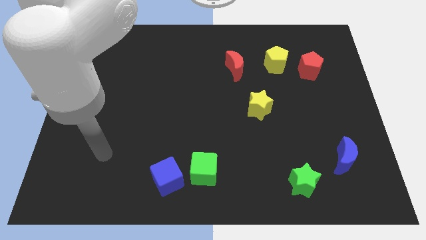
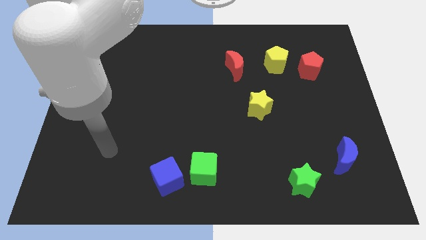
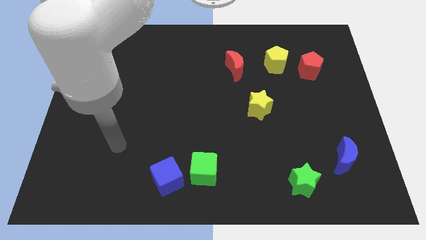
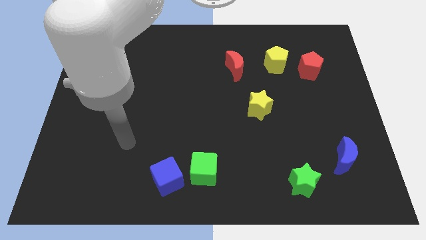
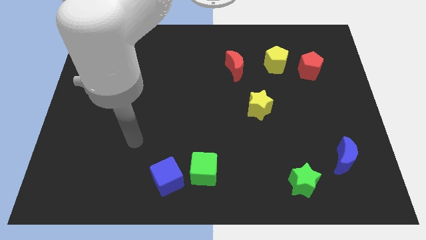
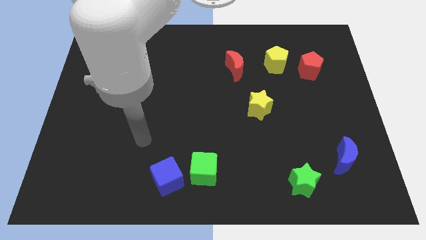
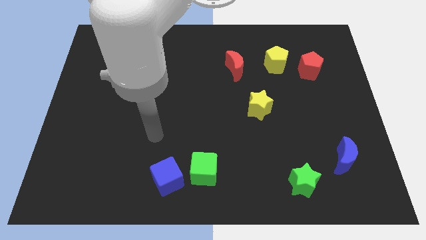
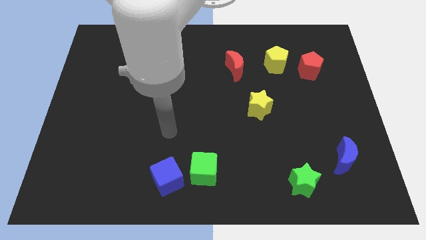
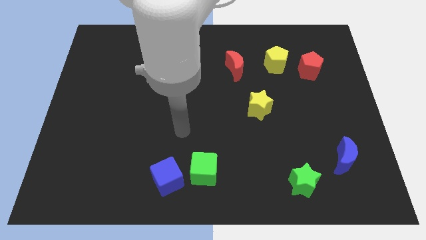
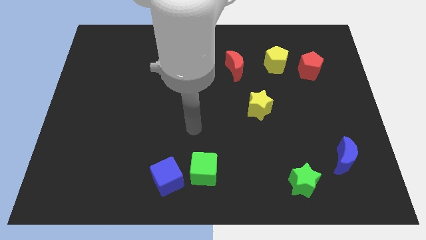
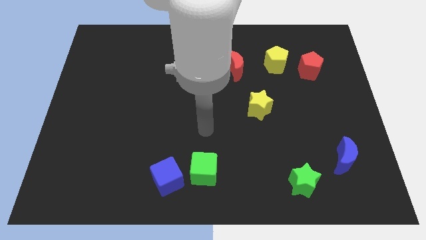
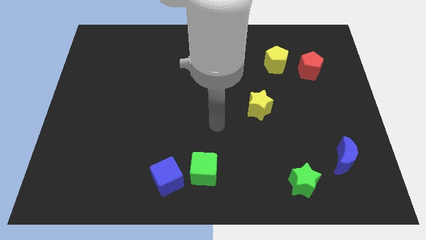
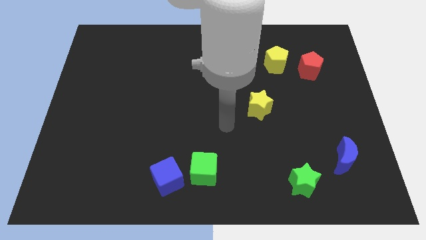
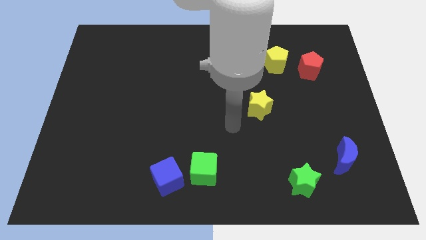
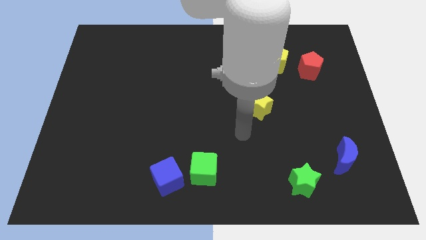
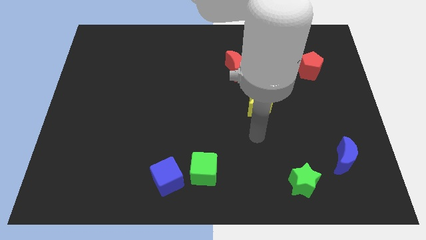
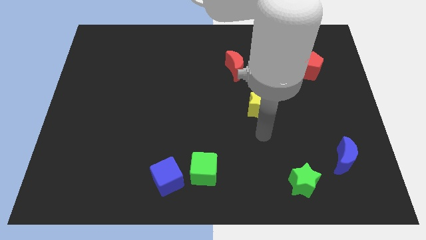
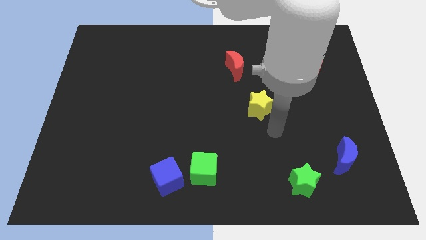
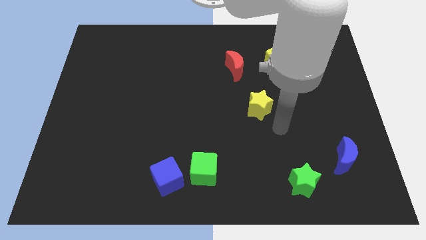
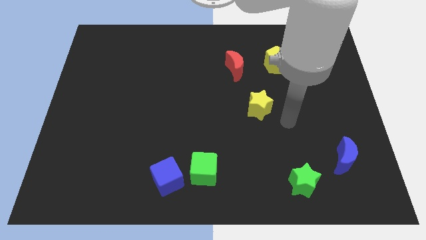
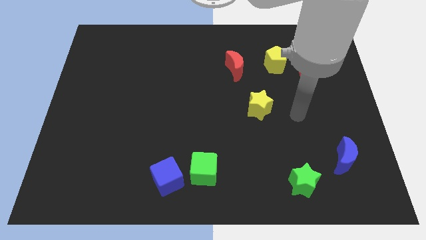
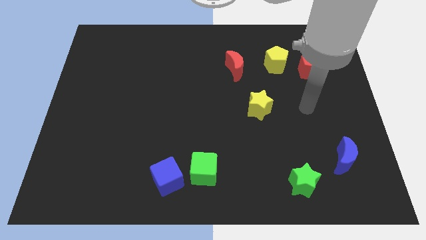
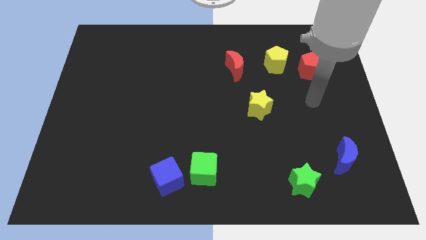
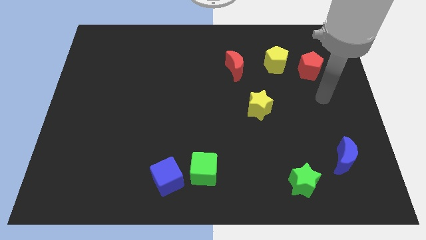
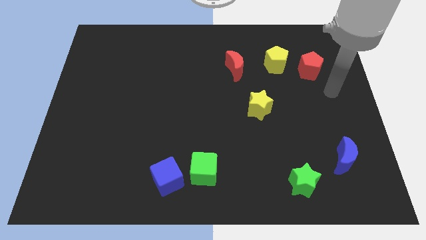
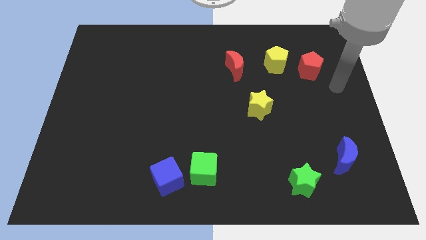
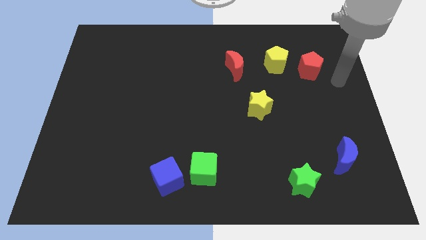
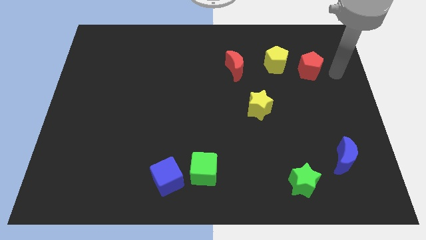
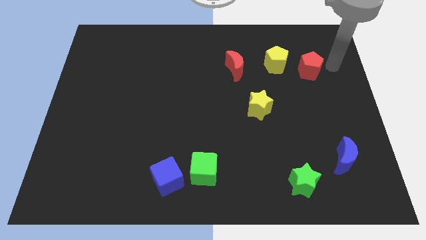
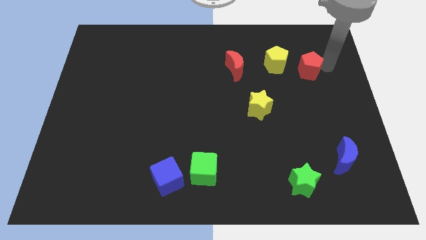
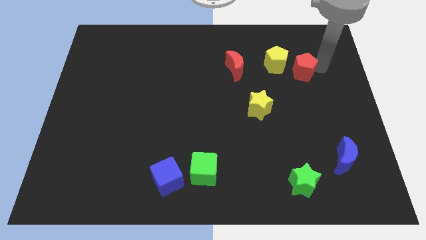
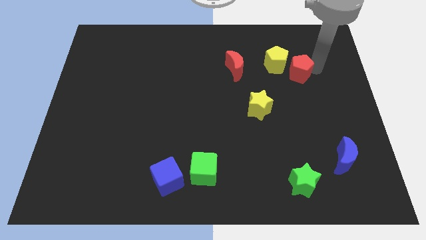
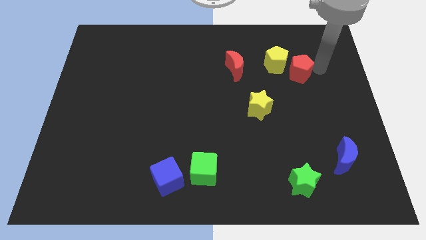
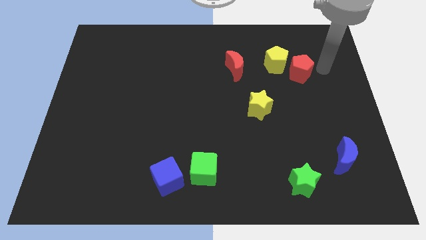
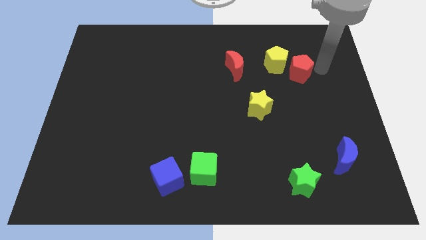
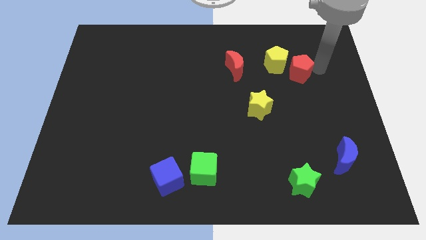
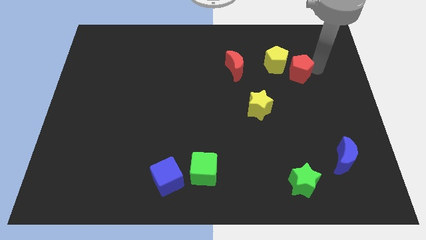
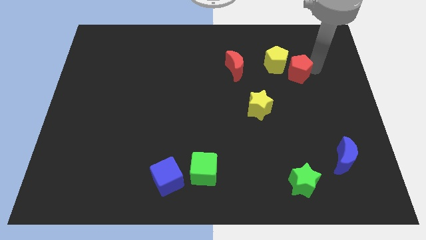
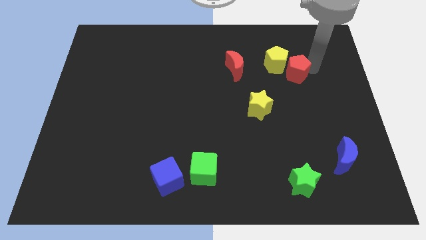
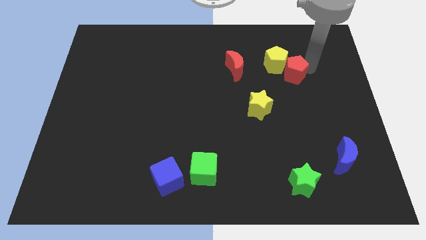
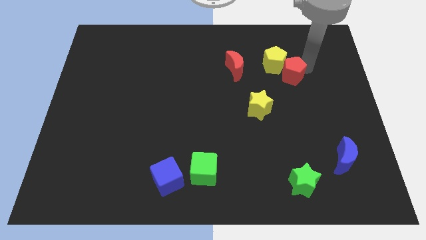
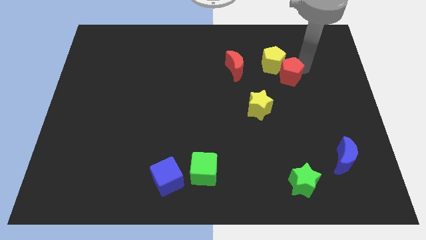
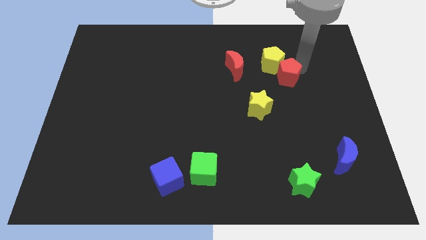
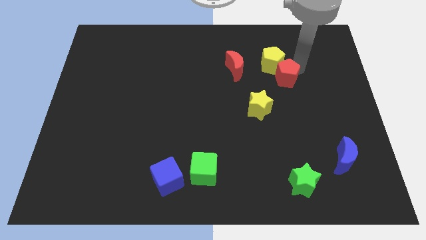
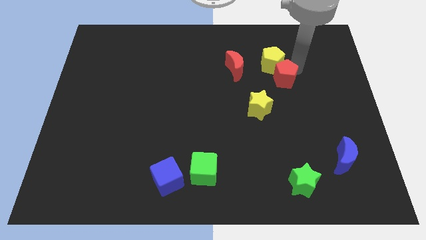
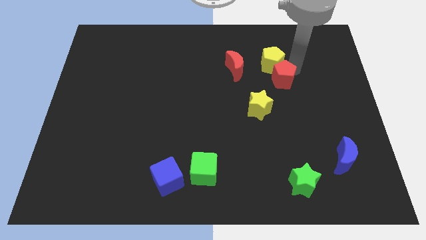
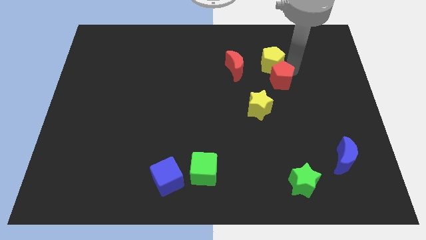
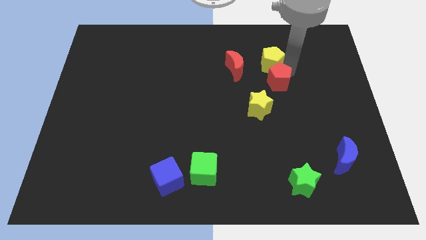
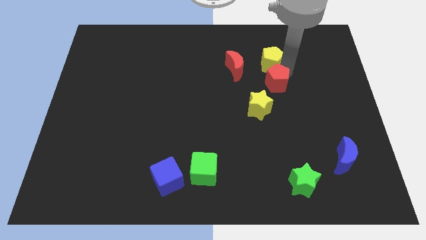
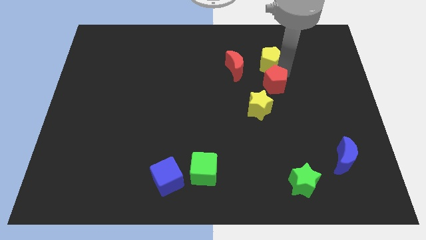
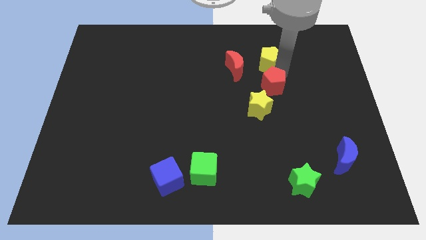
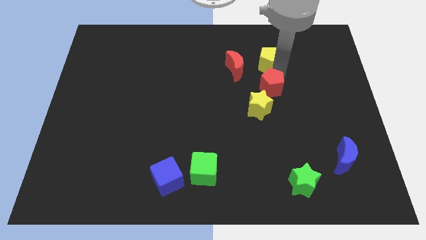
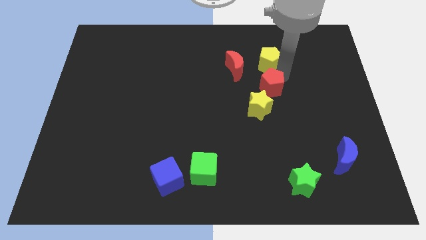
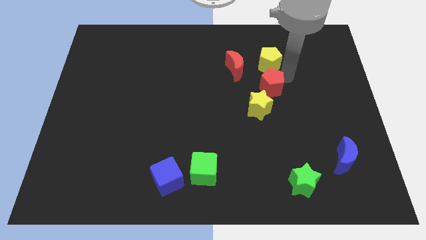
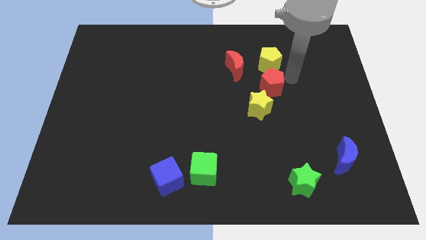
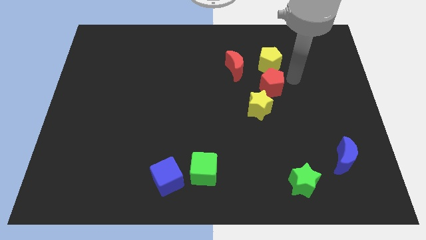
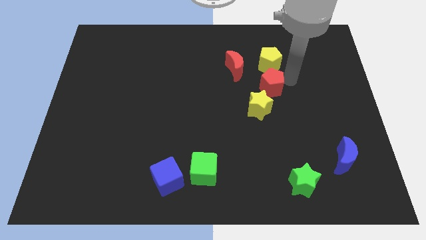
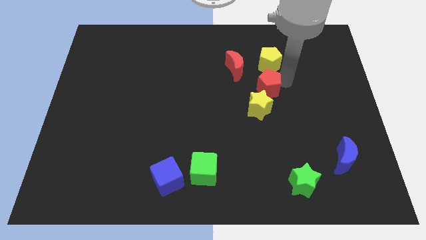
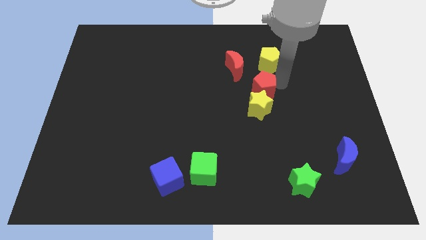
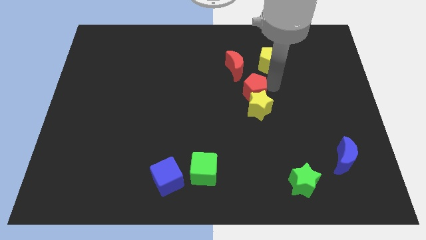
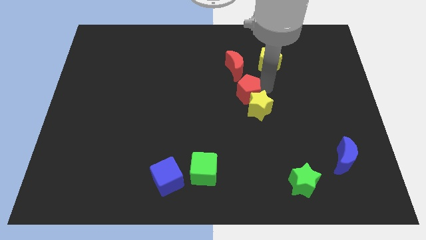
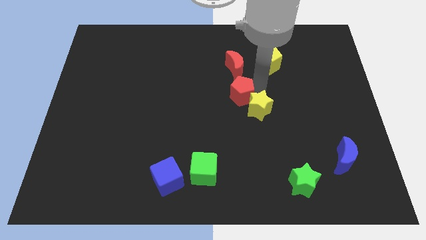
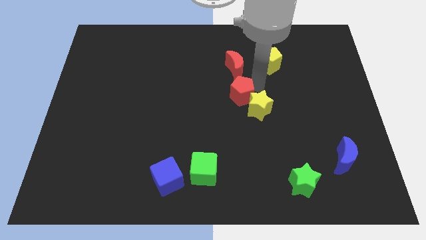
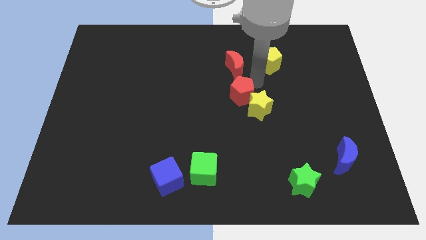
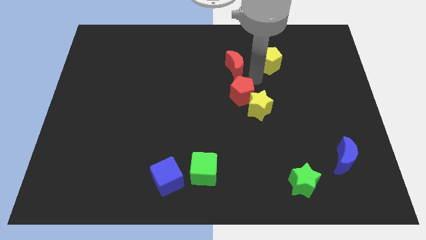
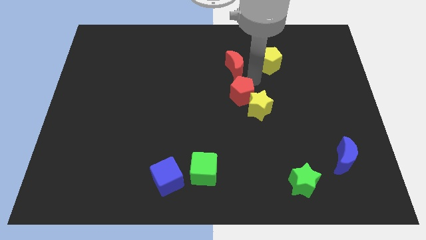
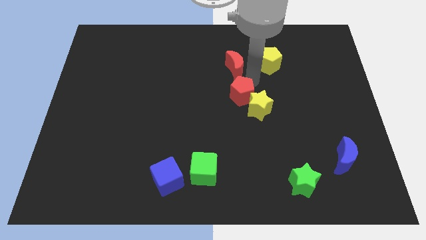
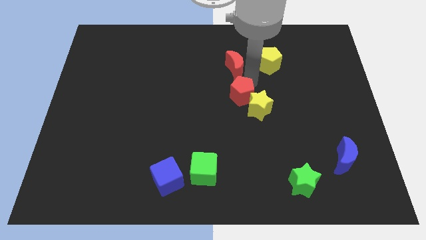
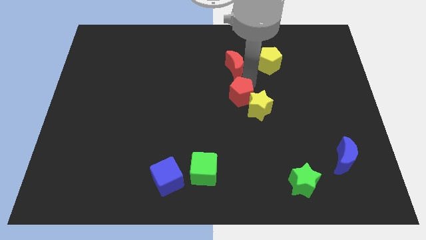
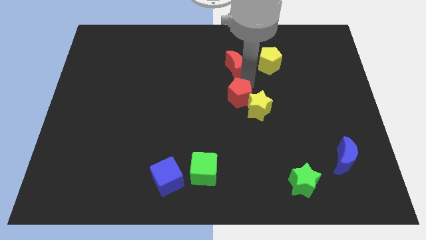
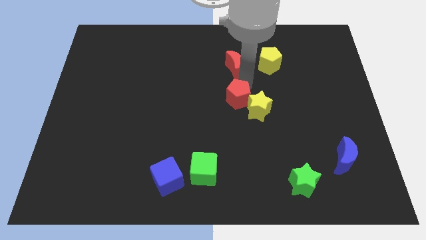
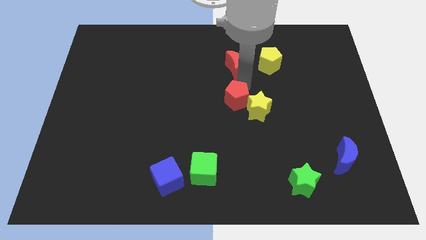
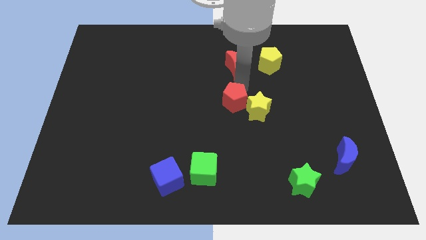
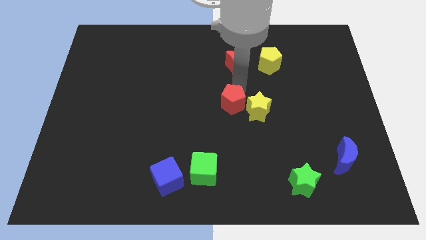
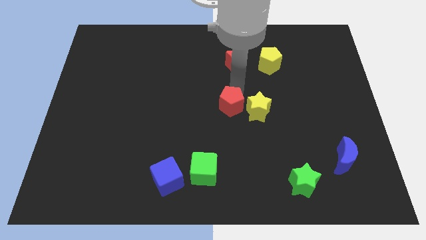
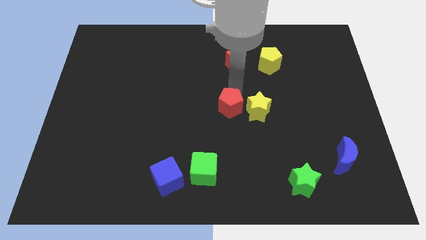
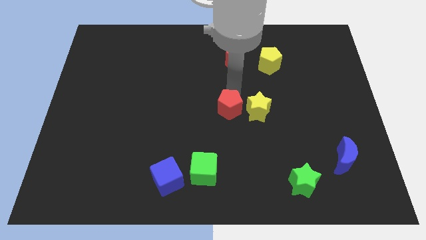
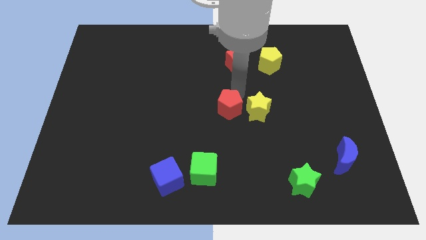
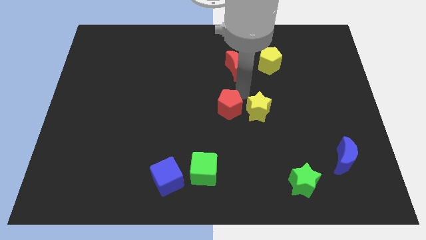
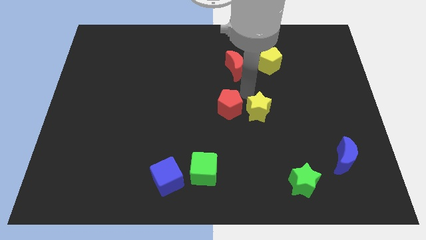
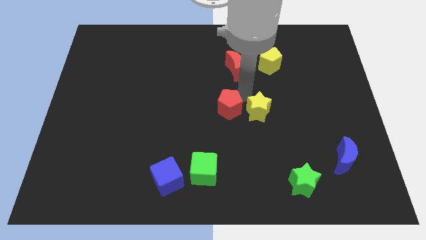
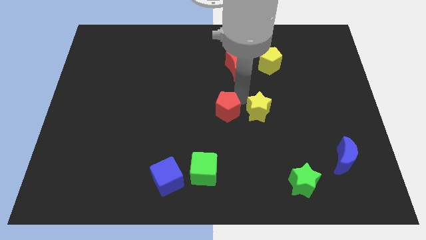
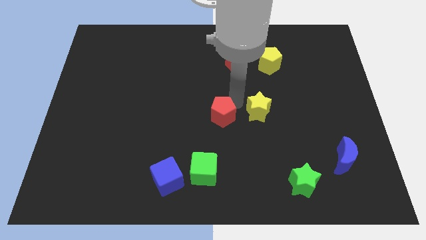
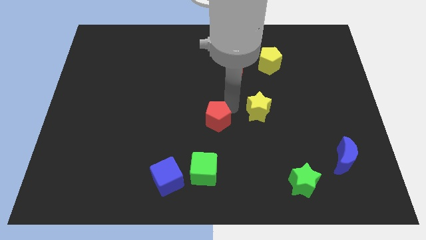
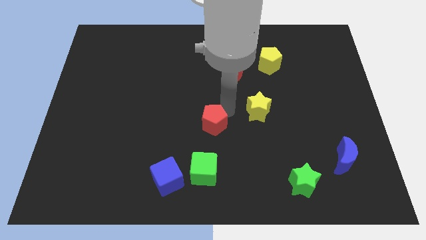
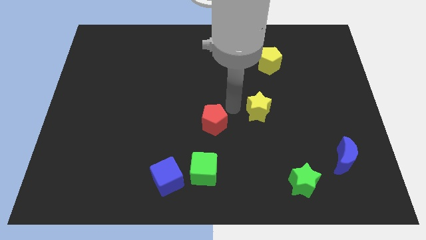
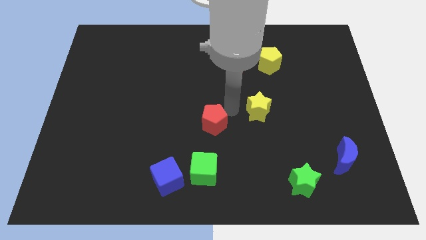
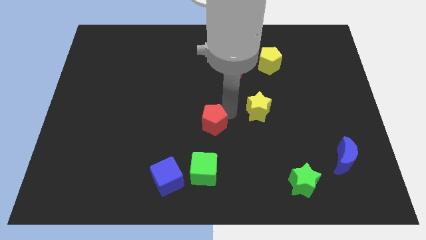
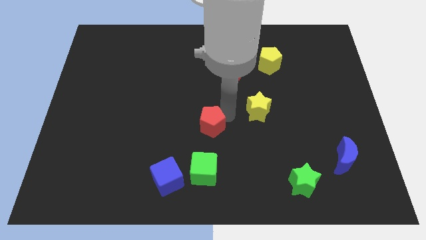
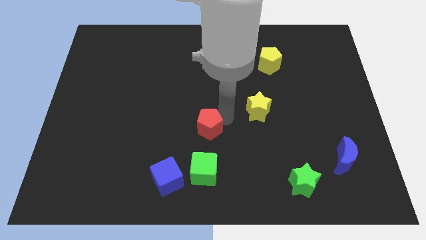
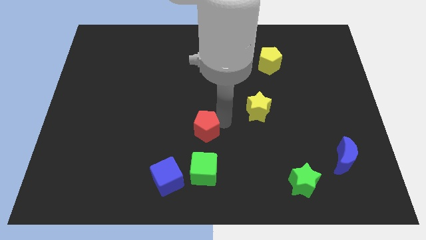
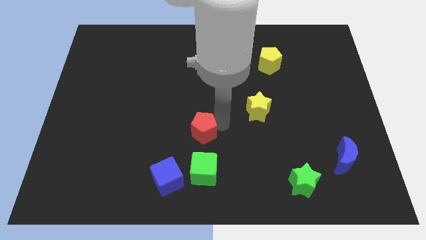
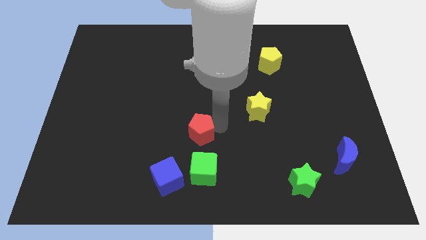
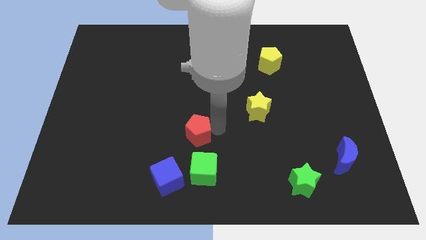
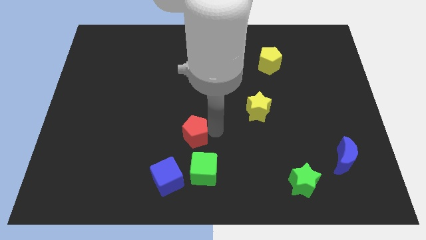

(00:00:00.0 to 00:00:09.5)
put the red pentagon to the top left of the green cube
